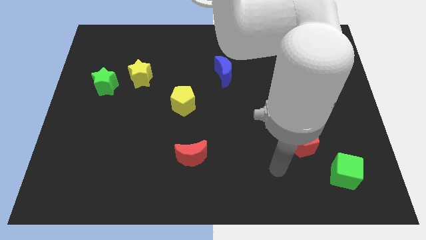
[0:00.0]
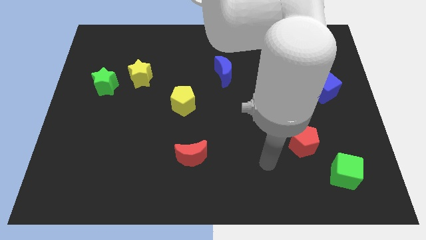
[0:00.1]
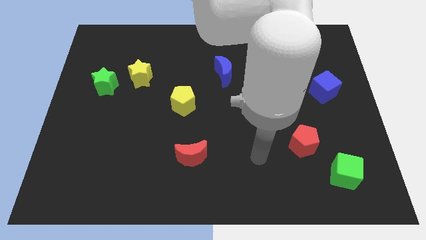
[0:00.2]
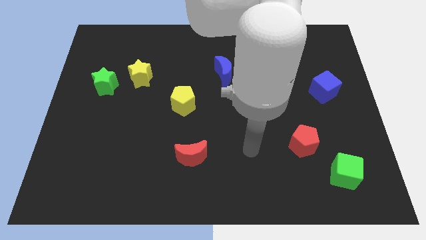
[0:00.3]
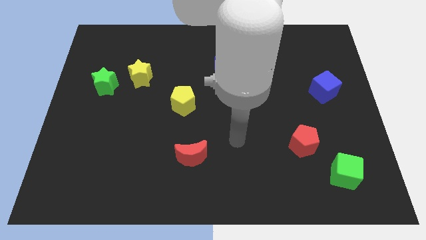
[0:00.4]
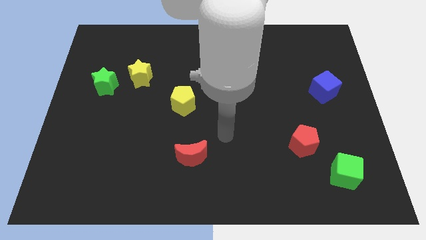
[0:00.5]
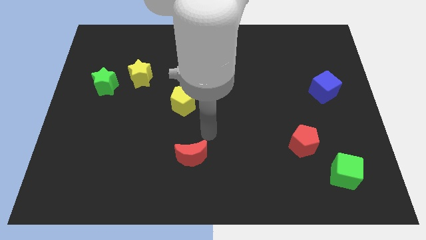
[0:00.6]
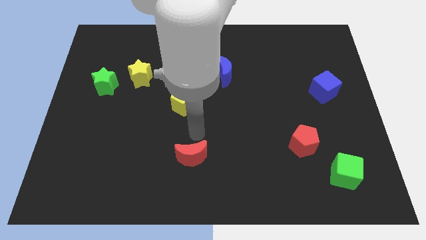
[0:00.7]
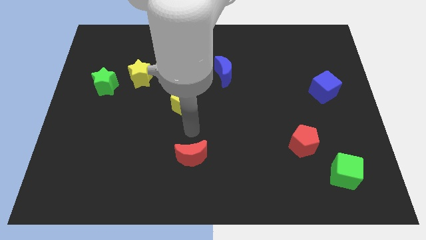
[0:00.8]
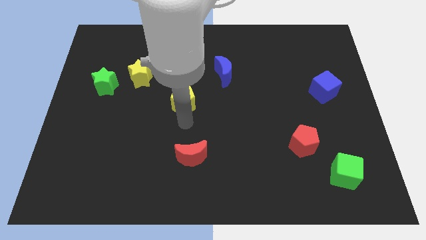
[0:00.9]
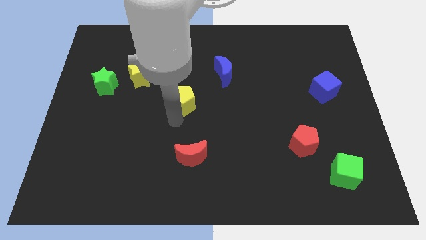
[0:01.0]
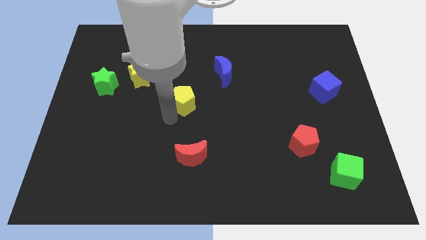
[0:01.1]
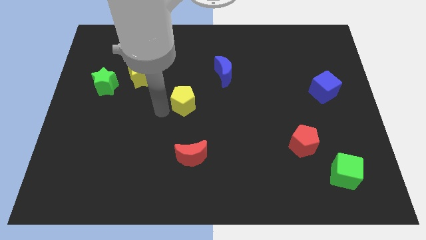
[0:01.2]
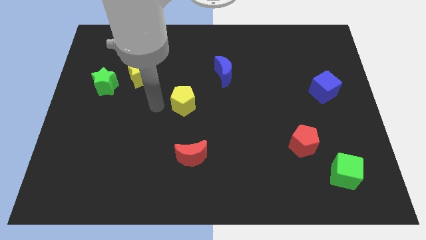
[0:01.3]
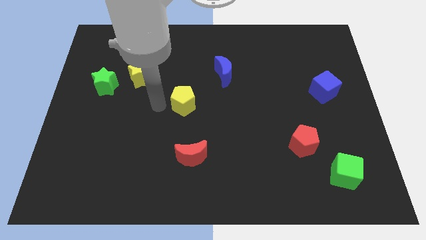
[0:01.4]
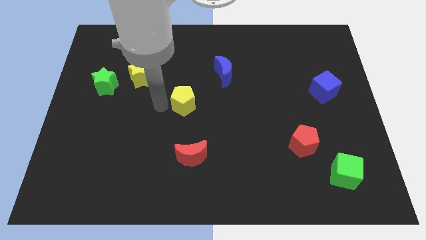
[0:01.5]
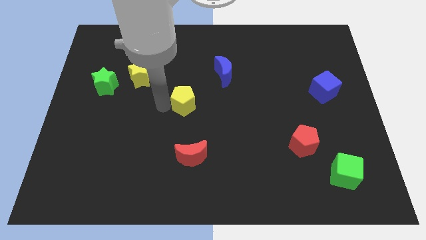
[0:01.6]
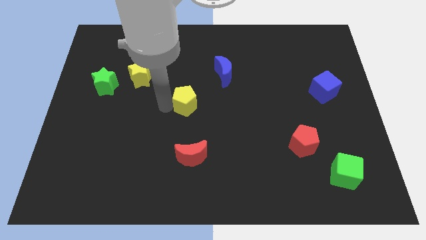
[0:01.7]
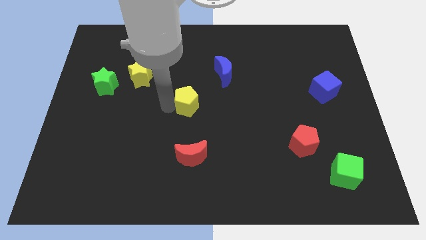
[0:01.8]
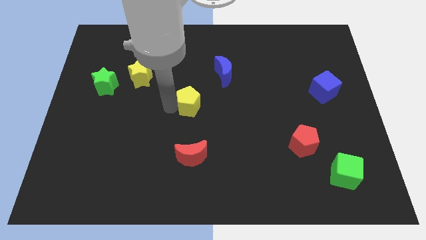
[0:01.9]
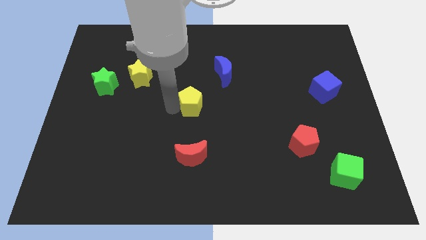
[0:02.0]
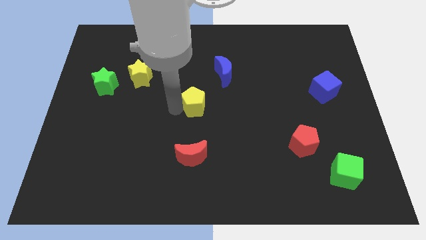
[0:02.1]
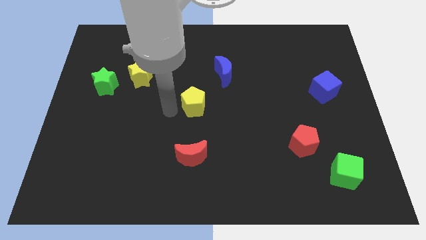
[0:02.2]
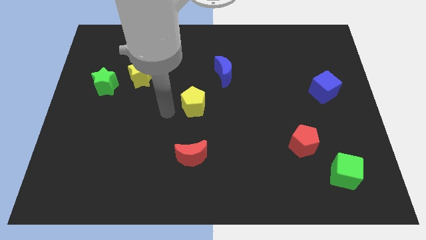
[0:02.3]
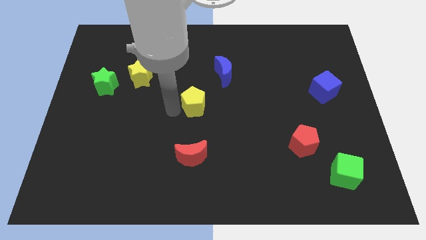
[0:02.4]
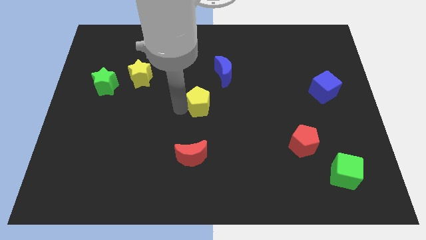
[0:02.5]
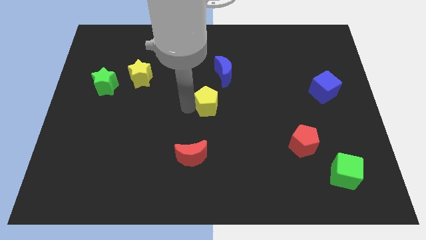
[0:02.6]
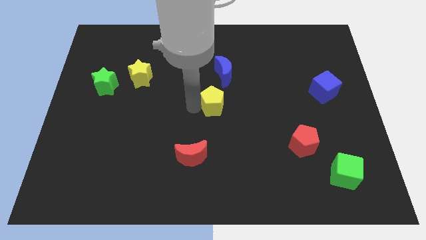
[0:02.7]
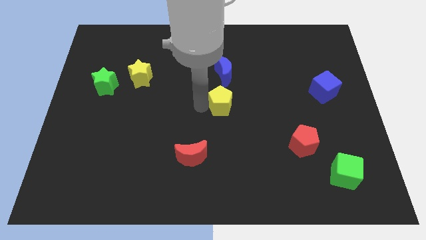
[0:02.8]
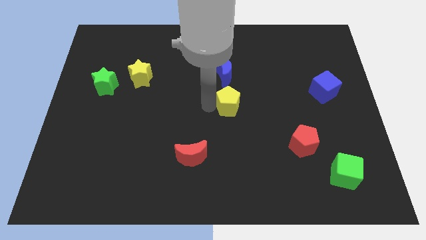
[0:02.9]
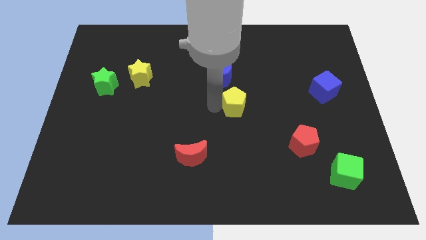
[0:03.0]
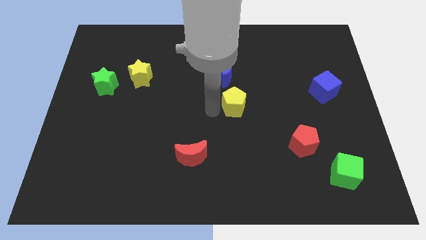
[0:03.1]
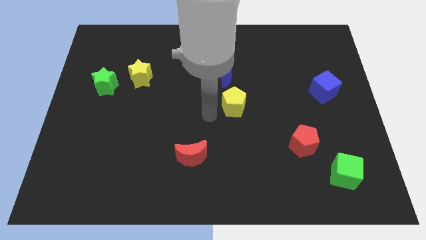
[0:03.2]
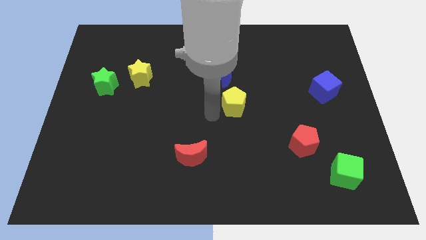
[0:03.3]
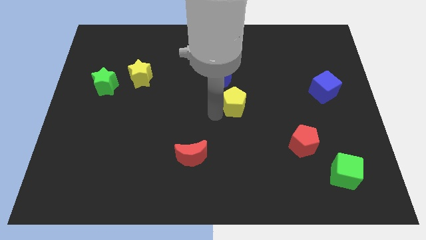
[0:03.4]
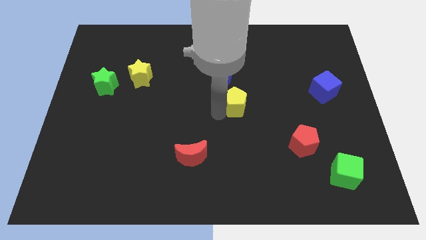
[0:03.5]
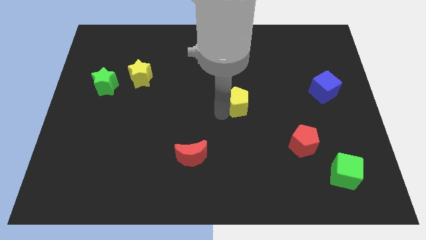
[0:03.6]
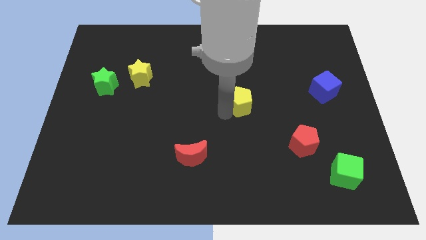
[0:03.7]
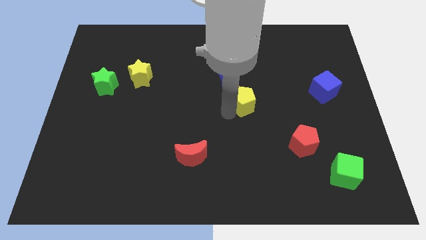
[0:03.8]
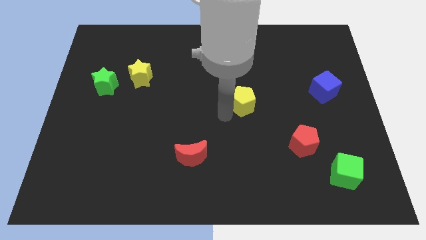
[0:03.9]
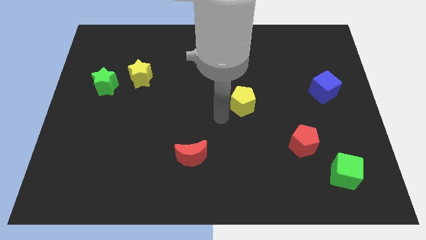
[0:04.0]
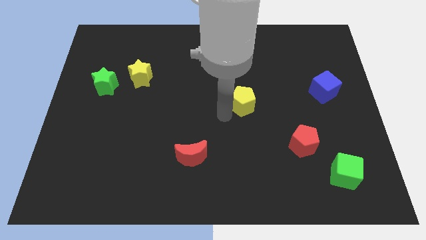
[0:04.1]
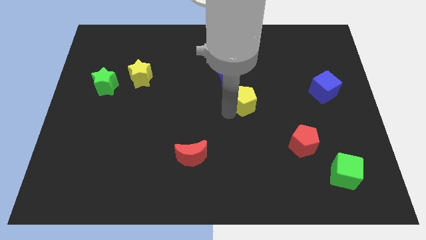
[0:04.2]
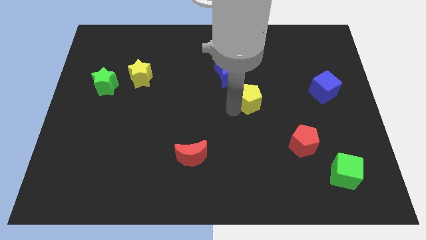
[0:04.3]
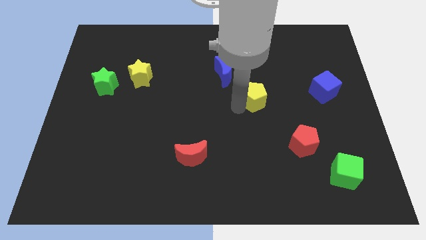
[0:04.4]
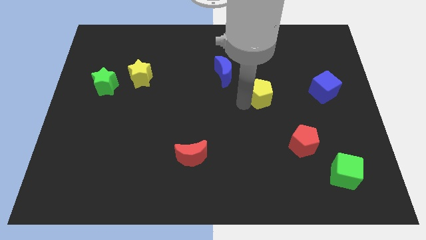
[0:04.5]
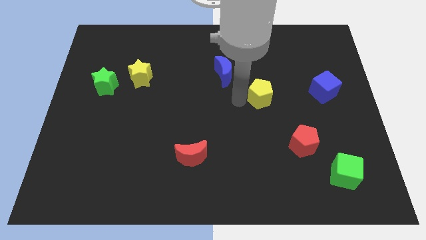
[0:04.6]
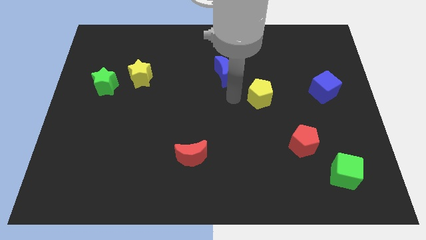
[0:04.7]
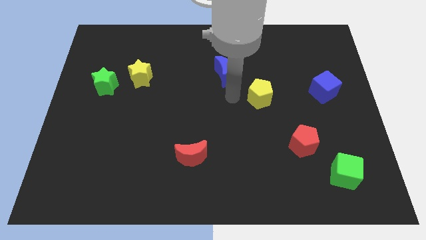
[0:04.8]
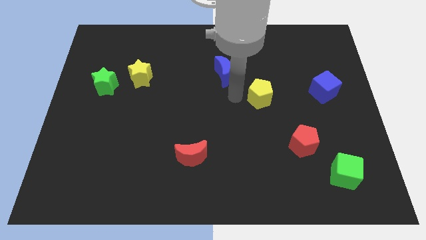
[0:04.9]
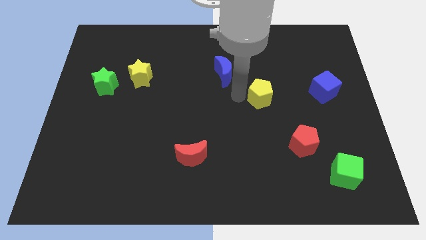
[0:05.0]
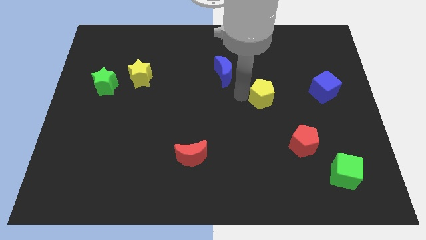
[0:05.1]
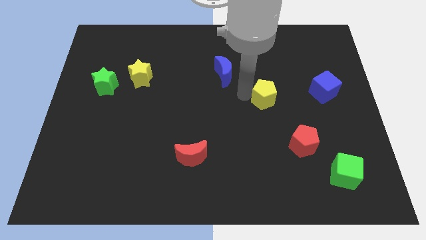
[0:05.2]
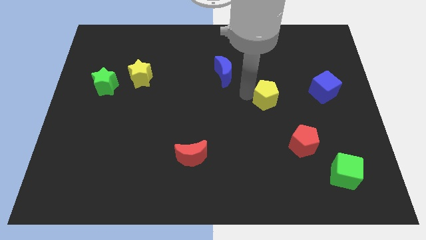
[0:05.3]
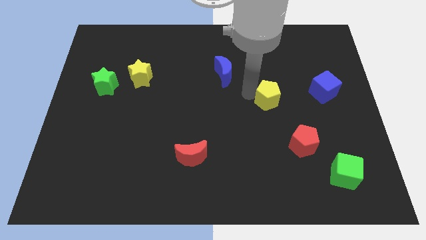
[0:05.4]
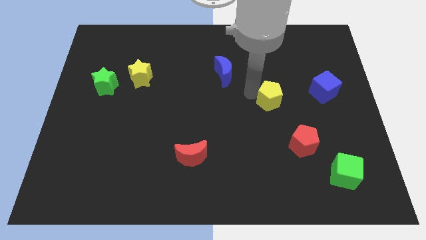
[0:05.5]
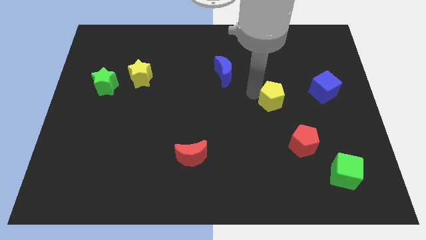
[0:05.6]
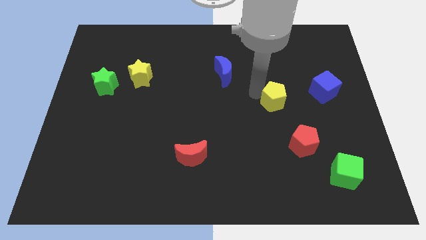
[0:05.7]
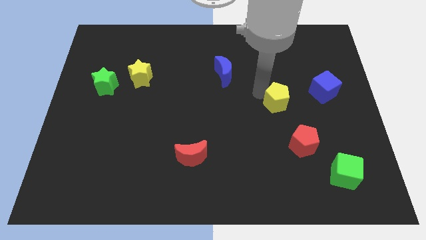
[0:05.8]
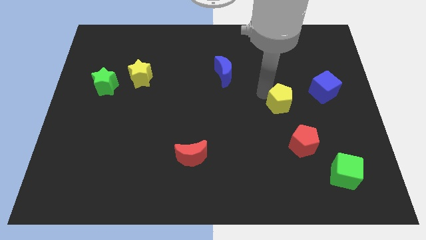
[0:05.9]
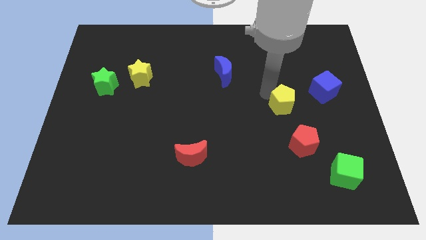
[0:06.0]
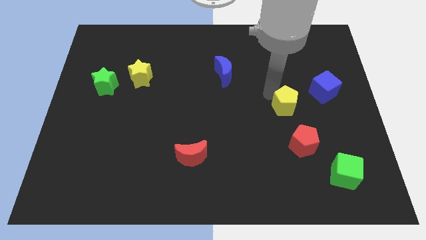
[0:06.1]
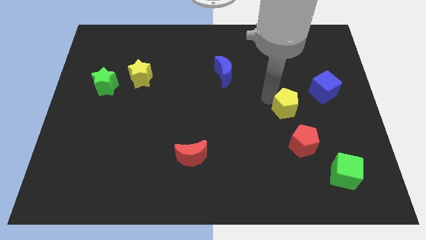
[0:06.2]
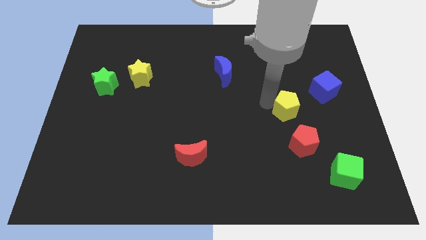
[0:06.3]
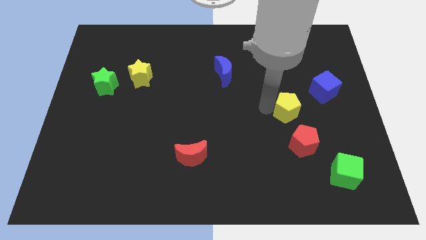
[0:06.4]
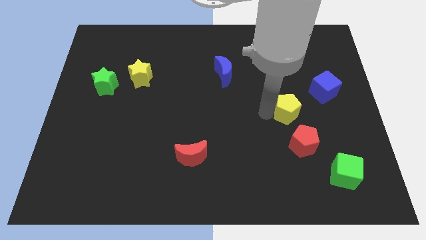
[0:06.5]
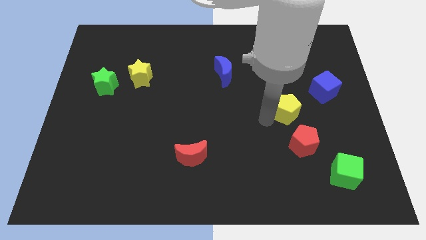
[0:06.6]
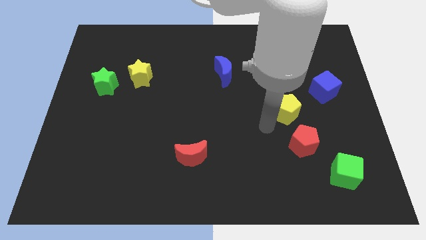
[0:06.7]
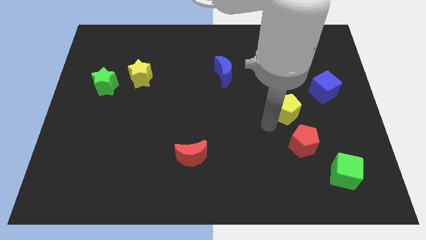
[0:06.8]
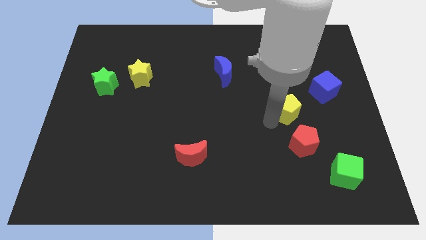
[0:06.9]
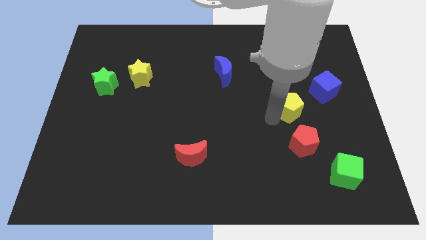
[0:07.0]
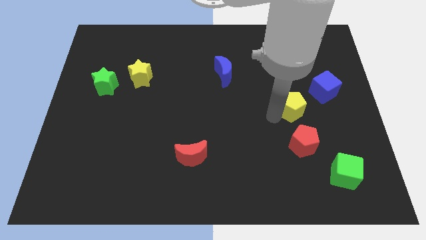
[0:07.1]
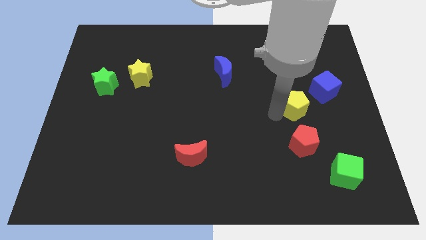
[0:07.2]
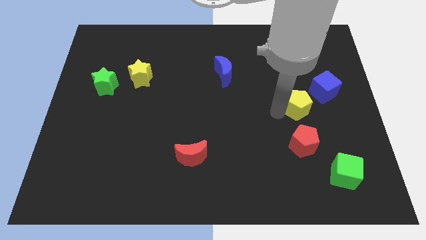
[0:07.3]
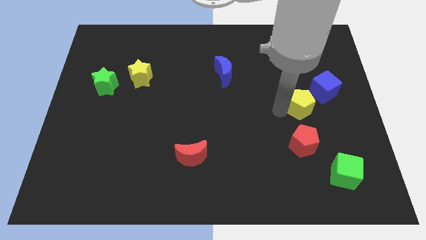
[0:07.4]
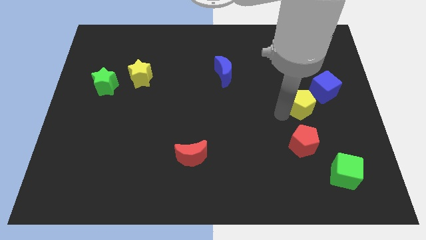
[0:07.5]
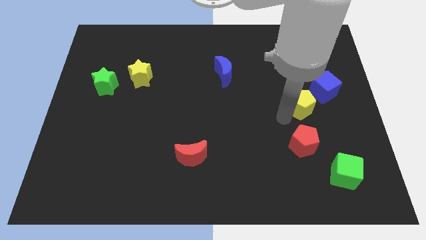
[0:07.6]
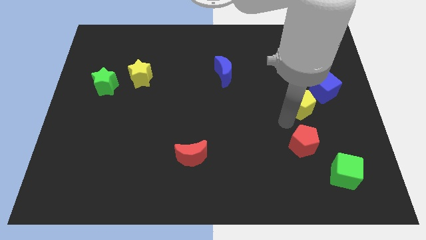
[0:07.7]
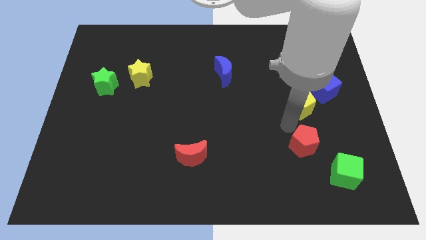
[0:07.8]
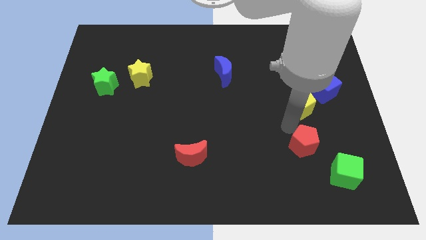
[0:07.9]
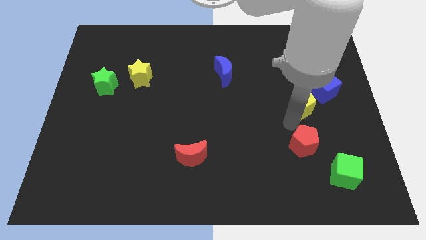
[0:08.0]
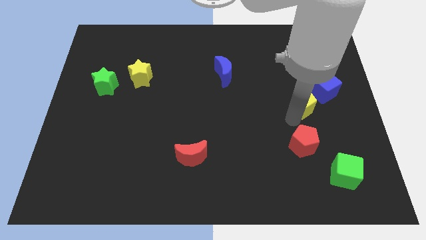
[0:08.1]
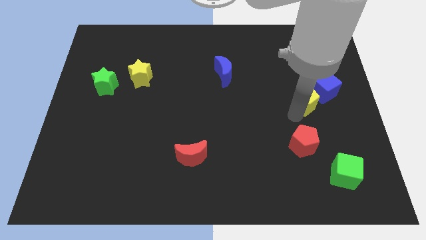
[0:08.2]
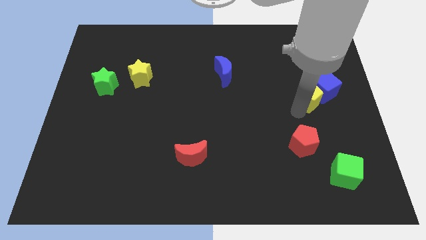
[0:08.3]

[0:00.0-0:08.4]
move the yellow pentagon close to the blue cube
